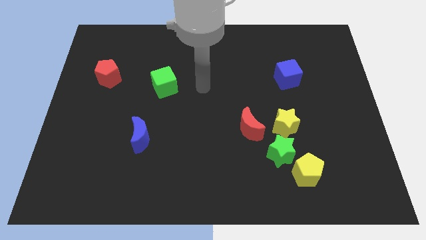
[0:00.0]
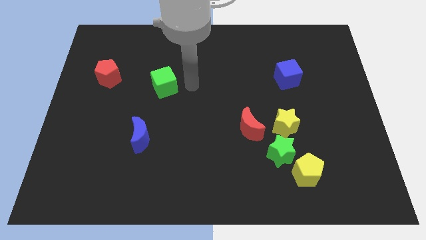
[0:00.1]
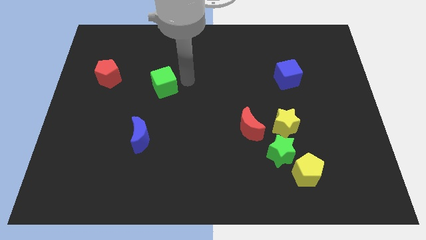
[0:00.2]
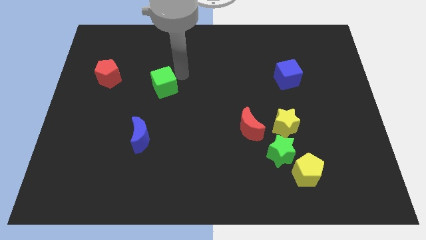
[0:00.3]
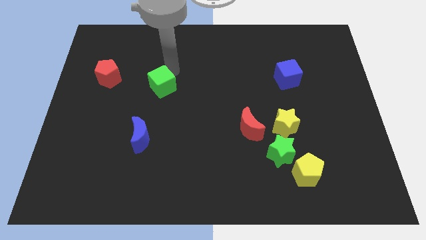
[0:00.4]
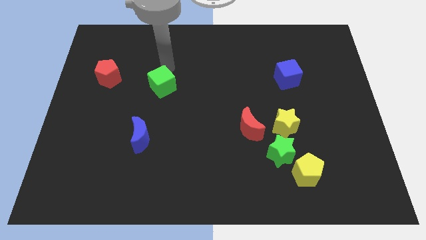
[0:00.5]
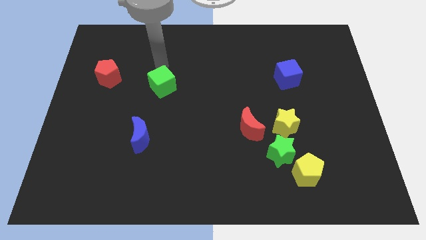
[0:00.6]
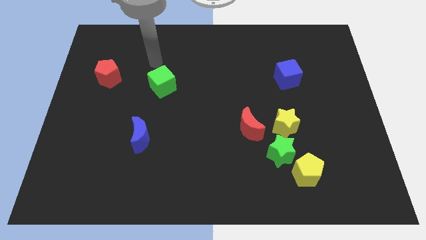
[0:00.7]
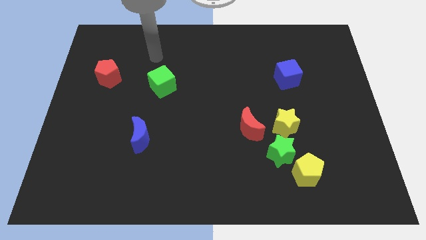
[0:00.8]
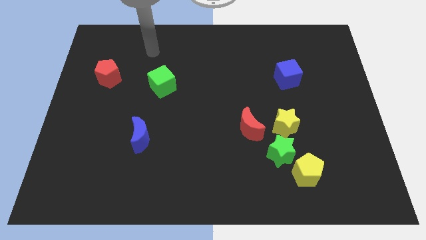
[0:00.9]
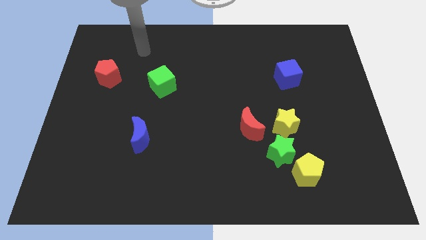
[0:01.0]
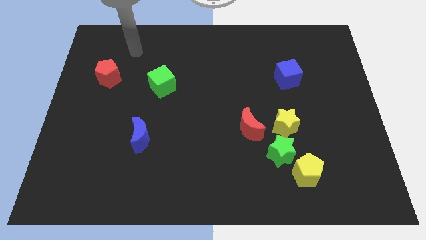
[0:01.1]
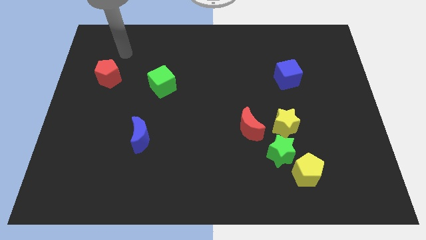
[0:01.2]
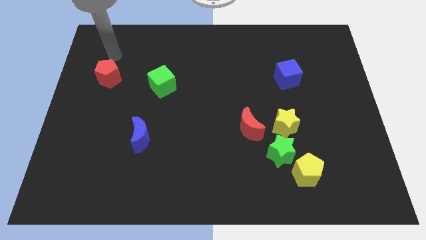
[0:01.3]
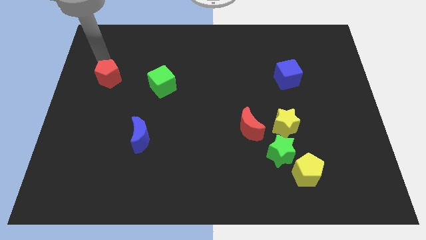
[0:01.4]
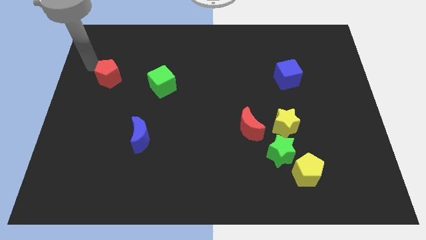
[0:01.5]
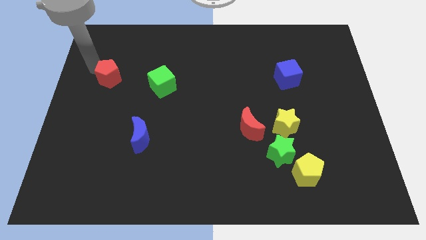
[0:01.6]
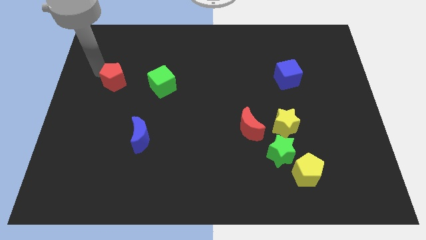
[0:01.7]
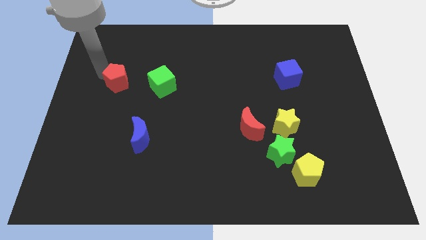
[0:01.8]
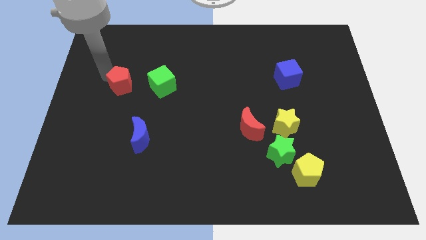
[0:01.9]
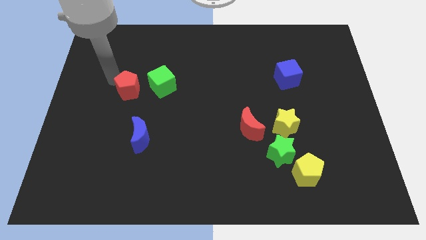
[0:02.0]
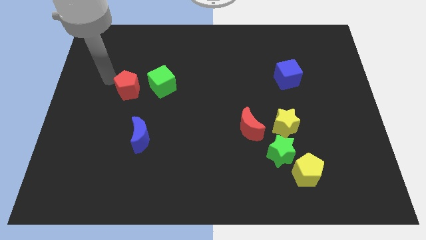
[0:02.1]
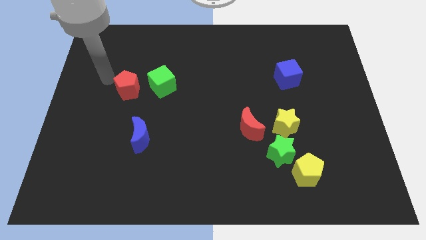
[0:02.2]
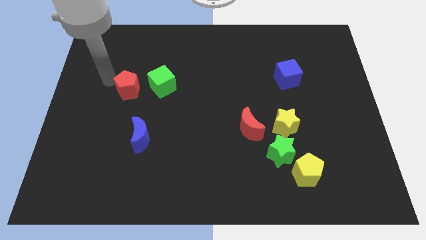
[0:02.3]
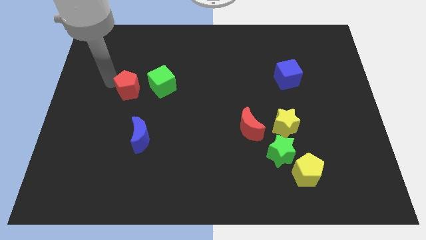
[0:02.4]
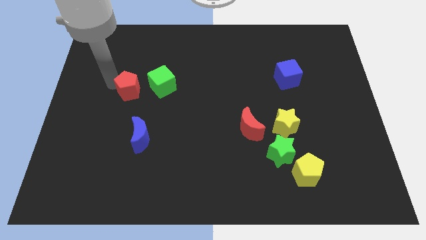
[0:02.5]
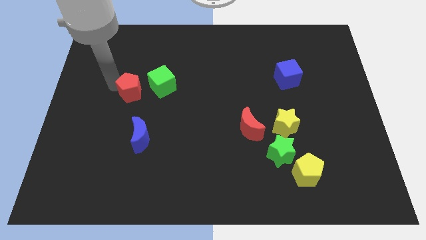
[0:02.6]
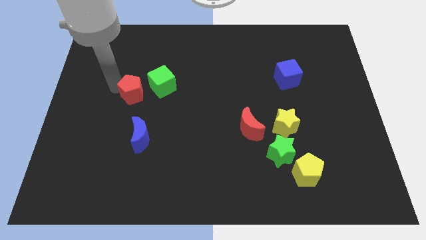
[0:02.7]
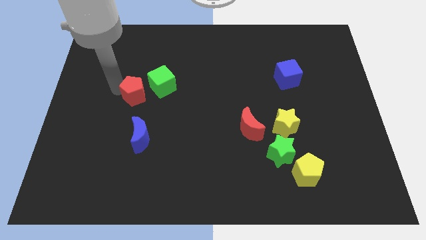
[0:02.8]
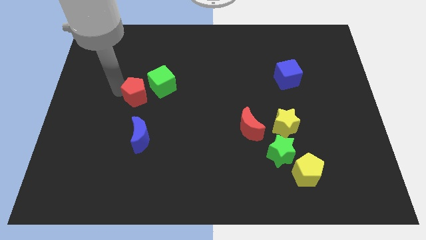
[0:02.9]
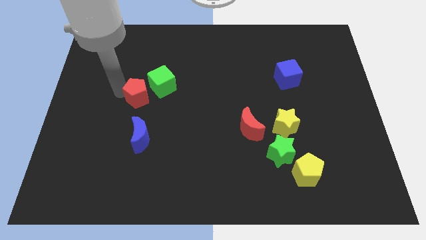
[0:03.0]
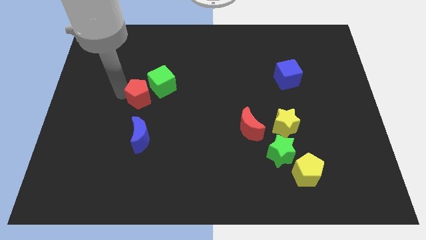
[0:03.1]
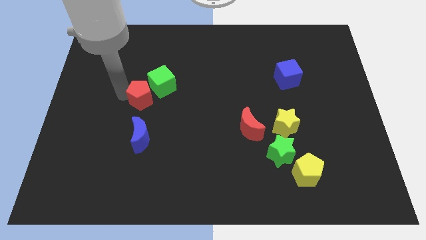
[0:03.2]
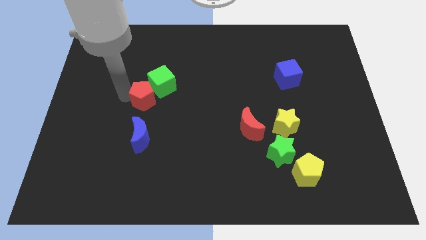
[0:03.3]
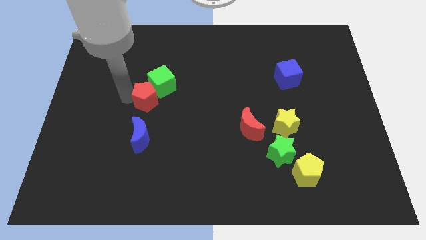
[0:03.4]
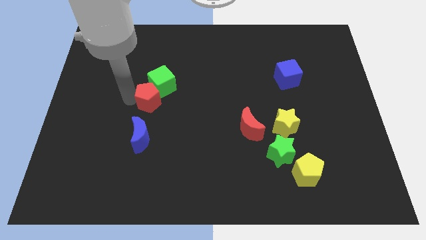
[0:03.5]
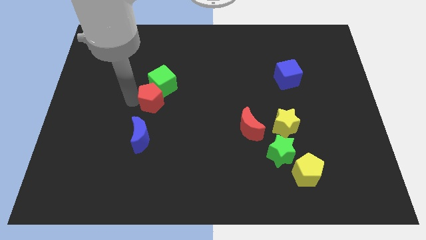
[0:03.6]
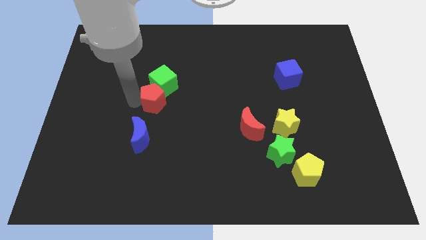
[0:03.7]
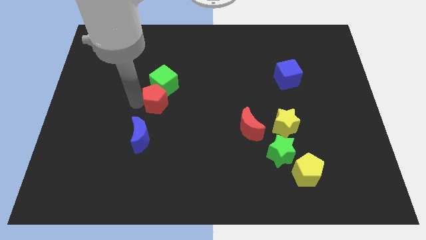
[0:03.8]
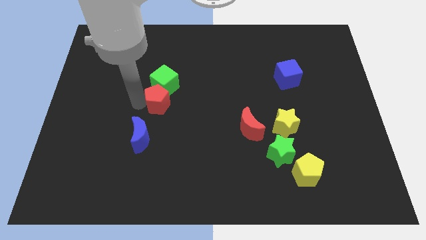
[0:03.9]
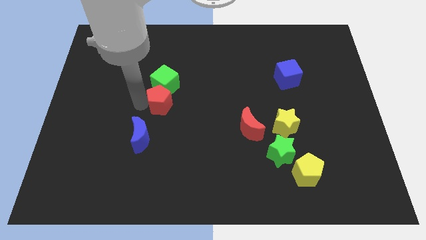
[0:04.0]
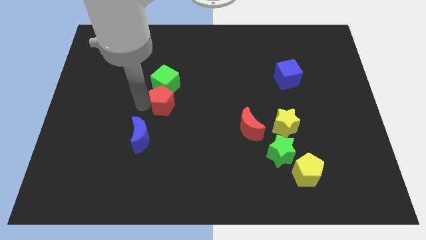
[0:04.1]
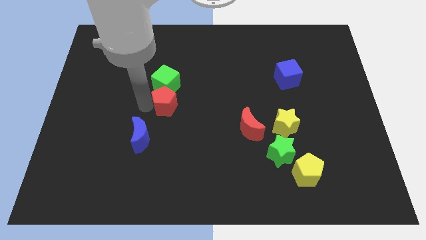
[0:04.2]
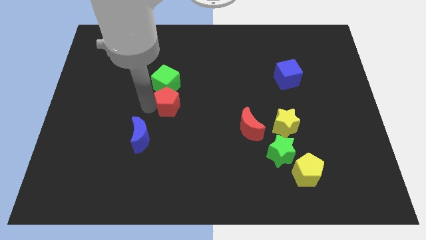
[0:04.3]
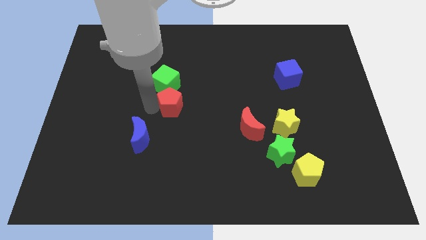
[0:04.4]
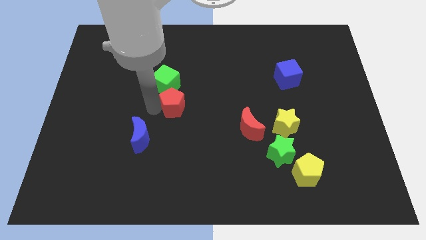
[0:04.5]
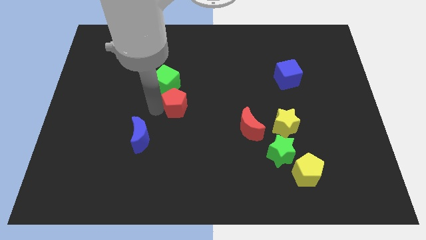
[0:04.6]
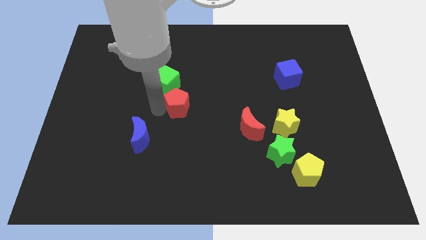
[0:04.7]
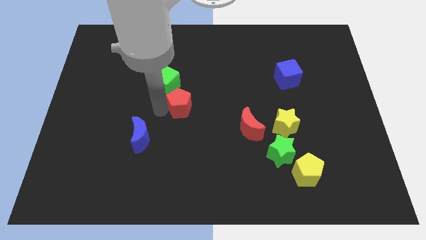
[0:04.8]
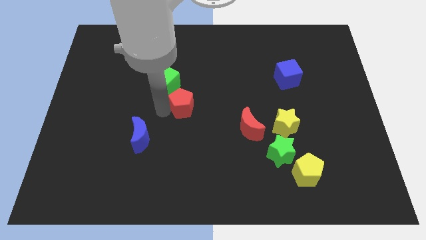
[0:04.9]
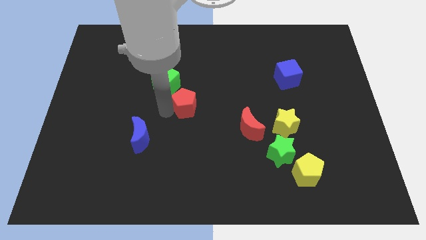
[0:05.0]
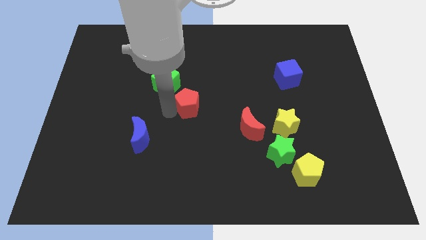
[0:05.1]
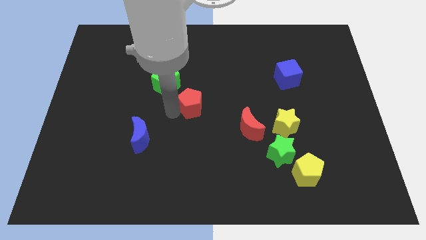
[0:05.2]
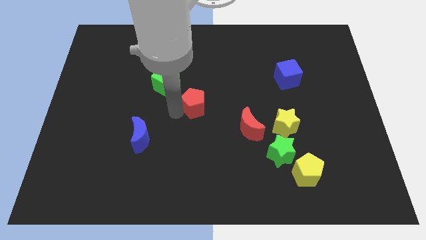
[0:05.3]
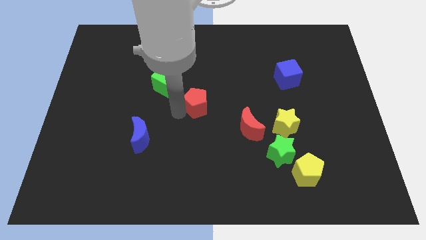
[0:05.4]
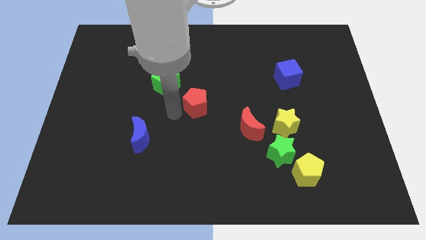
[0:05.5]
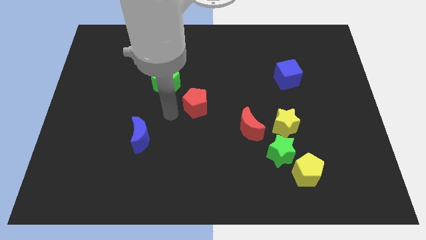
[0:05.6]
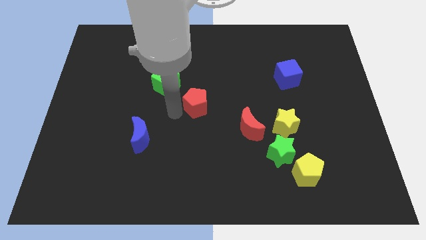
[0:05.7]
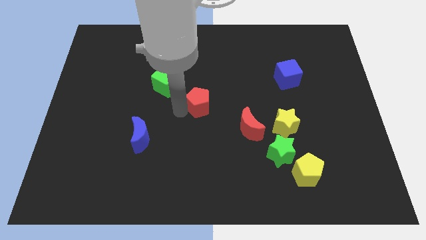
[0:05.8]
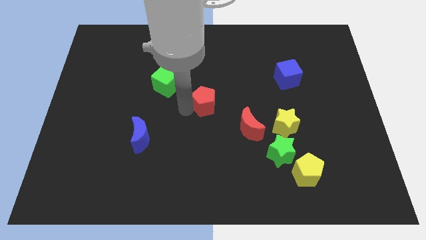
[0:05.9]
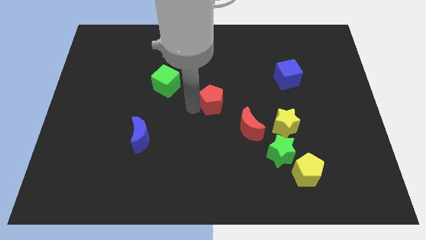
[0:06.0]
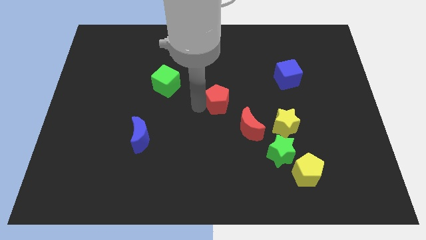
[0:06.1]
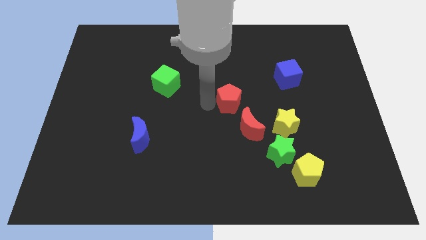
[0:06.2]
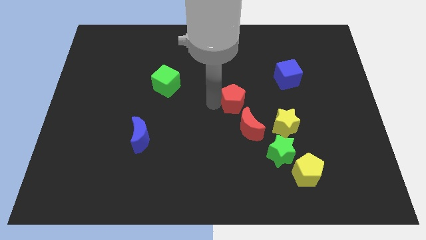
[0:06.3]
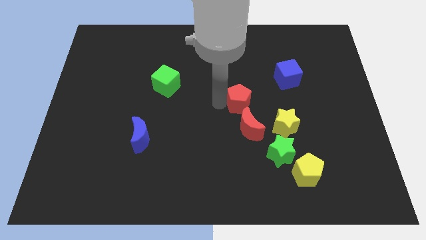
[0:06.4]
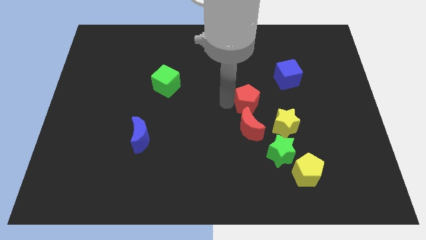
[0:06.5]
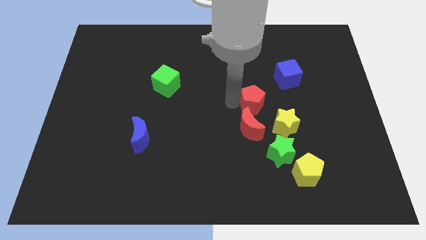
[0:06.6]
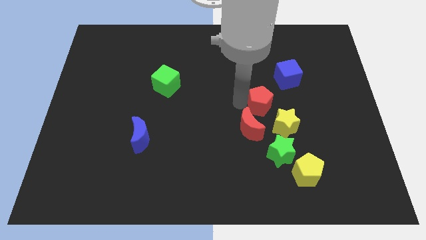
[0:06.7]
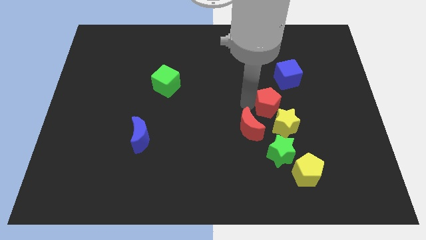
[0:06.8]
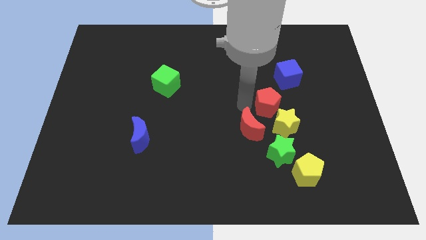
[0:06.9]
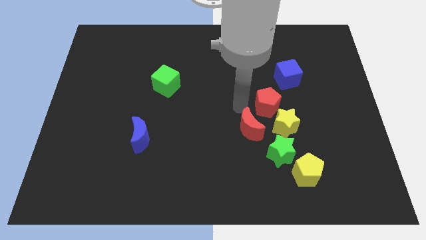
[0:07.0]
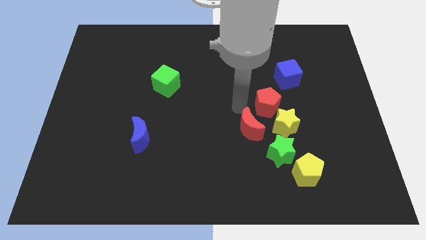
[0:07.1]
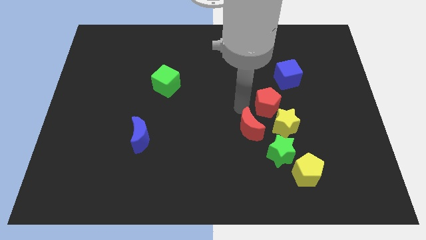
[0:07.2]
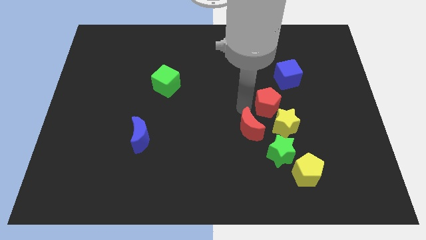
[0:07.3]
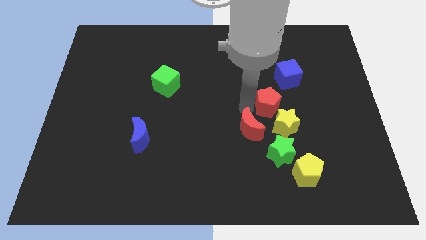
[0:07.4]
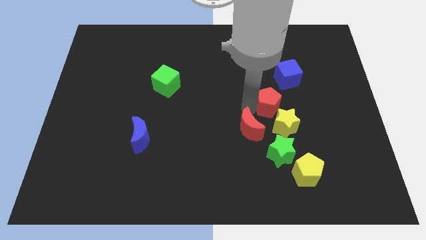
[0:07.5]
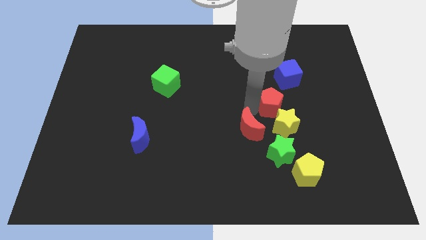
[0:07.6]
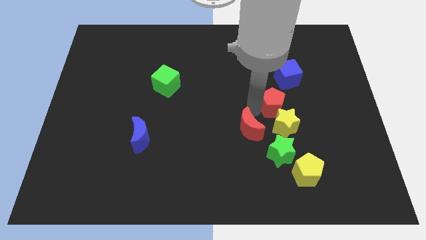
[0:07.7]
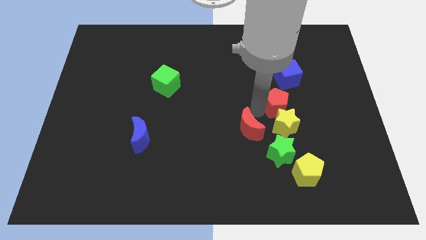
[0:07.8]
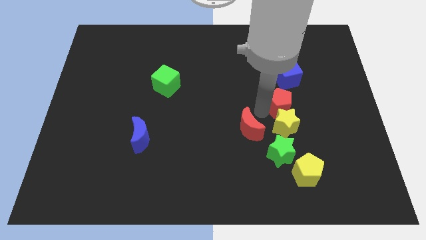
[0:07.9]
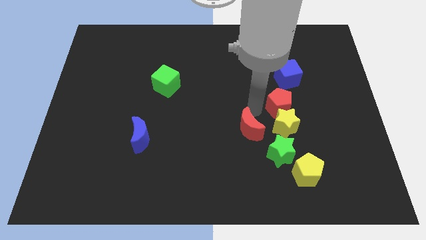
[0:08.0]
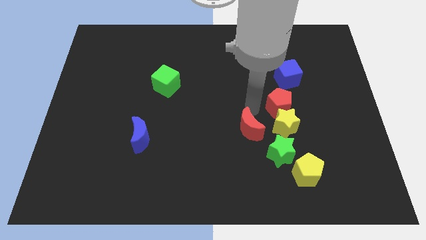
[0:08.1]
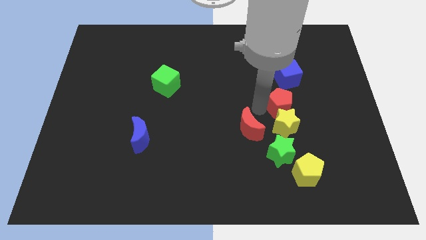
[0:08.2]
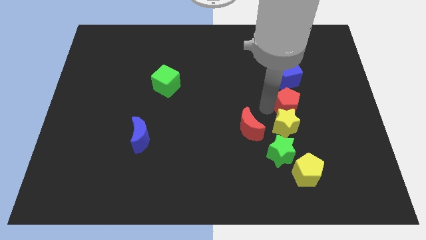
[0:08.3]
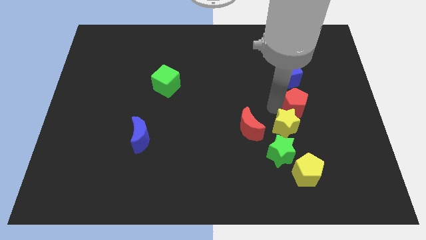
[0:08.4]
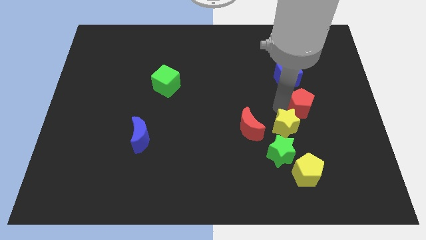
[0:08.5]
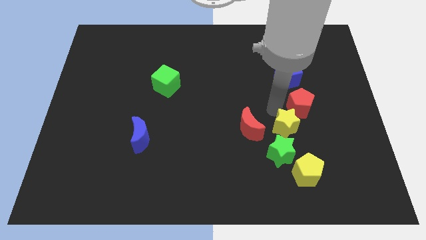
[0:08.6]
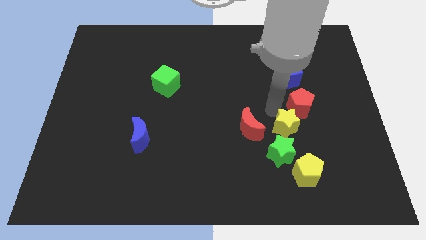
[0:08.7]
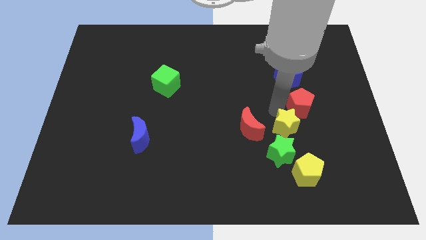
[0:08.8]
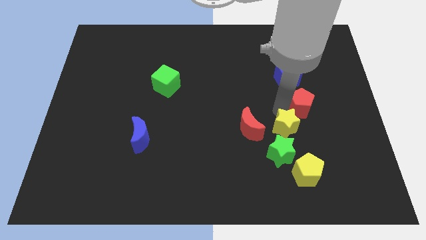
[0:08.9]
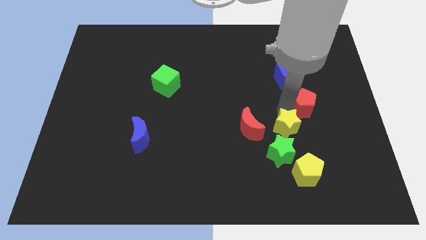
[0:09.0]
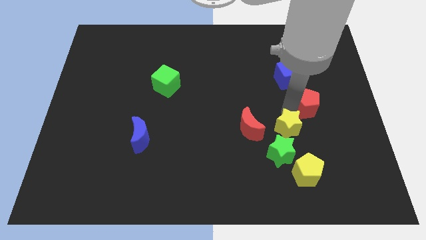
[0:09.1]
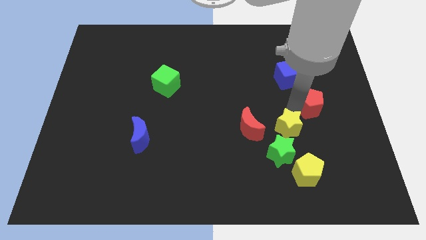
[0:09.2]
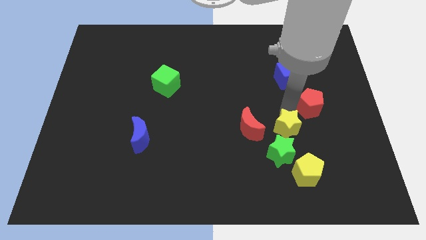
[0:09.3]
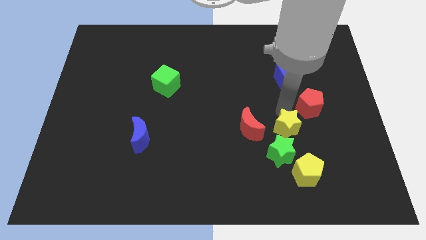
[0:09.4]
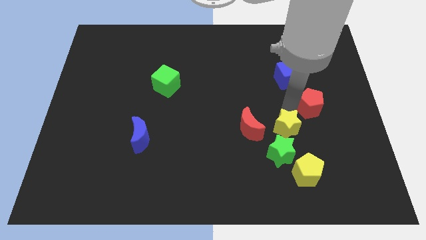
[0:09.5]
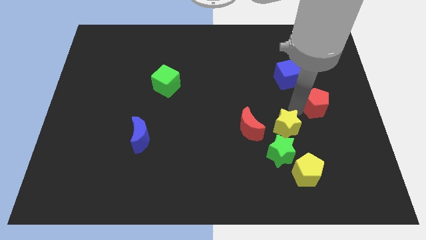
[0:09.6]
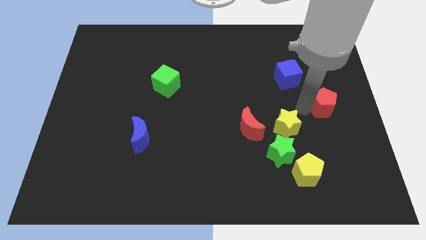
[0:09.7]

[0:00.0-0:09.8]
slide the red pentagon to the center right
